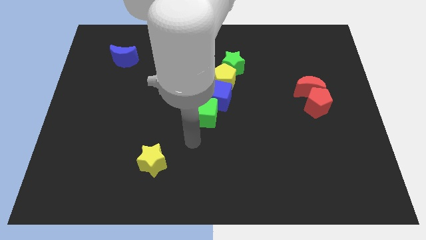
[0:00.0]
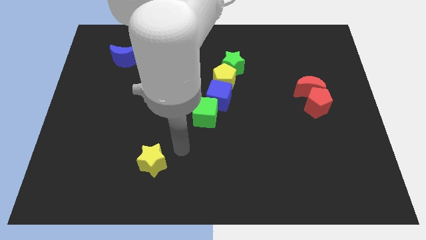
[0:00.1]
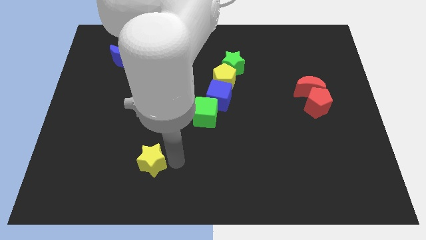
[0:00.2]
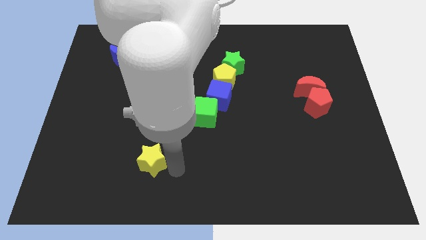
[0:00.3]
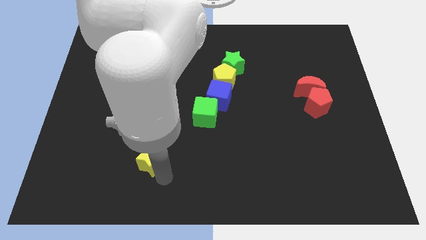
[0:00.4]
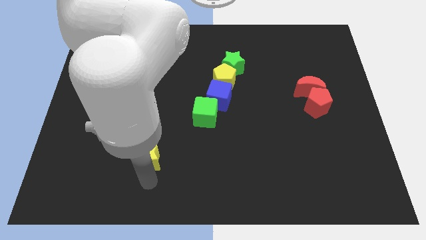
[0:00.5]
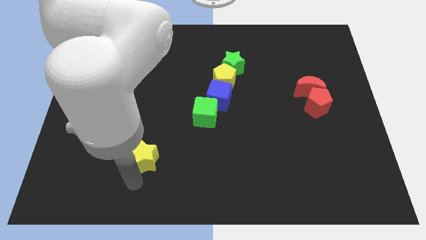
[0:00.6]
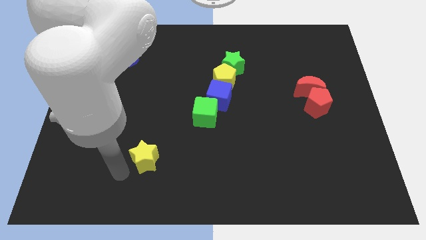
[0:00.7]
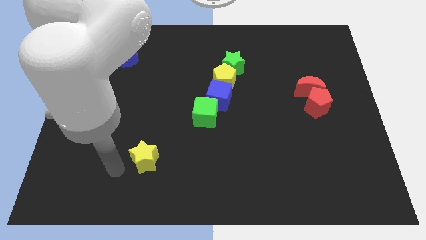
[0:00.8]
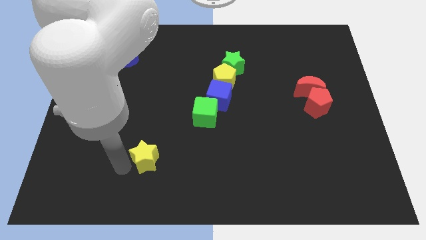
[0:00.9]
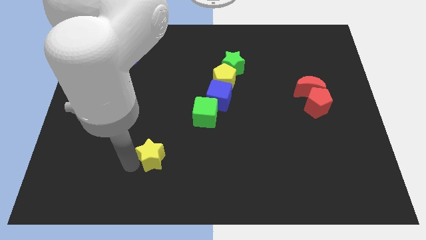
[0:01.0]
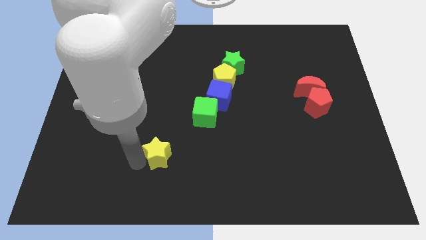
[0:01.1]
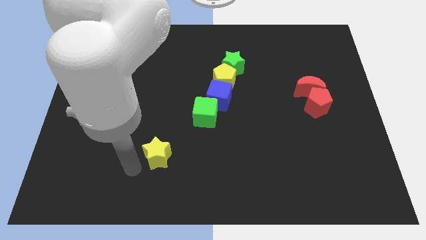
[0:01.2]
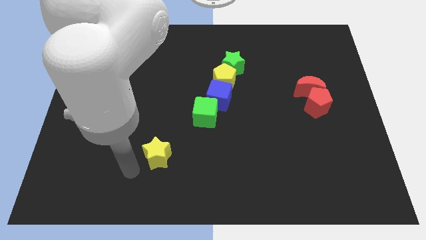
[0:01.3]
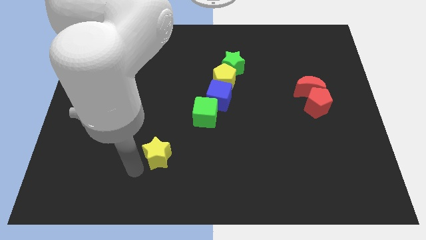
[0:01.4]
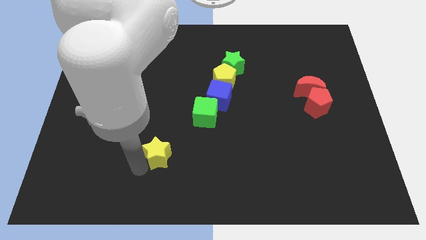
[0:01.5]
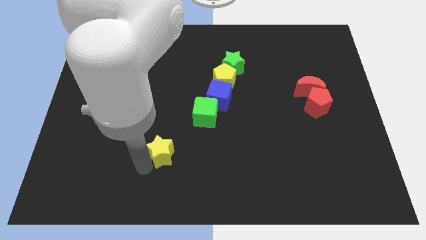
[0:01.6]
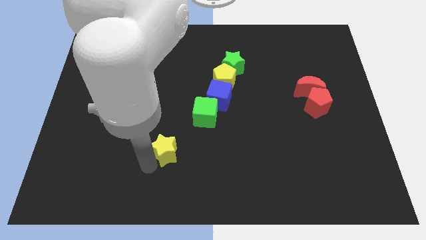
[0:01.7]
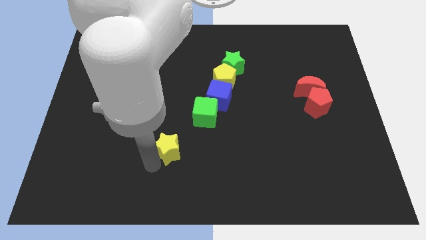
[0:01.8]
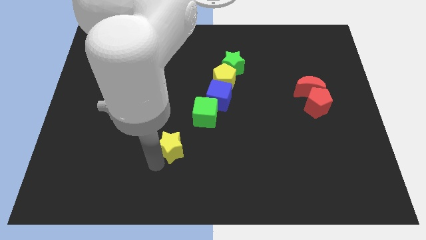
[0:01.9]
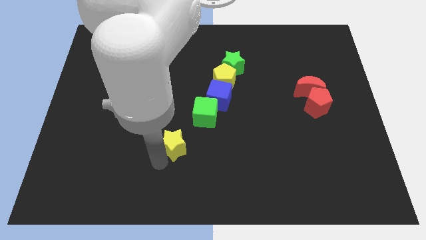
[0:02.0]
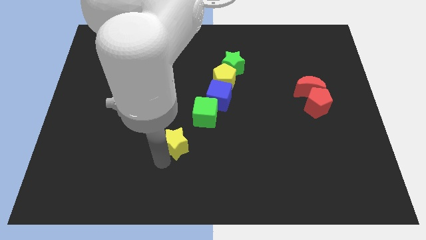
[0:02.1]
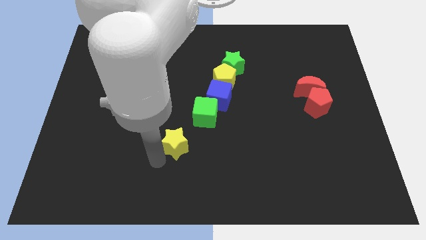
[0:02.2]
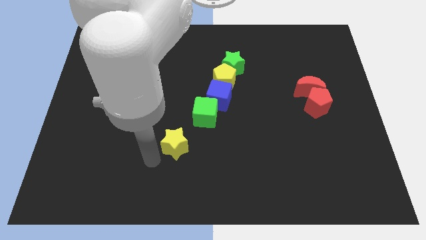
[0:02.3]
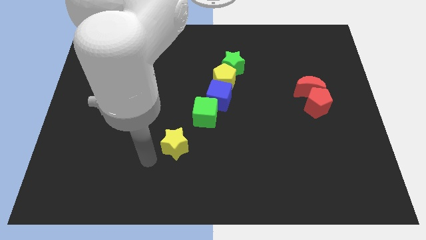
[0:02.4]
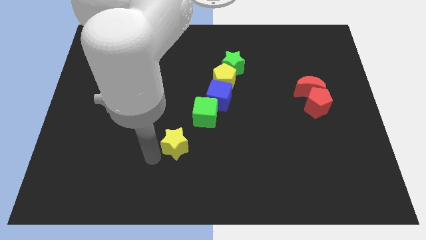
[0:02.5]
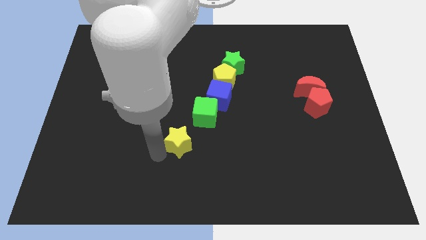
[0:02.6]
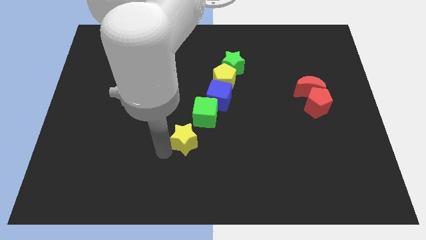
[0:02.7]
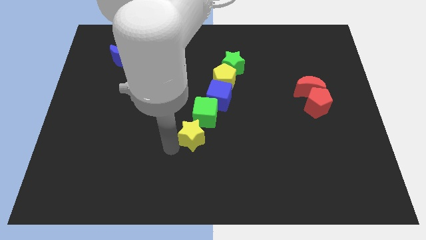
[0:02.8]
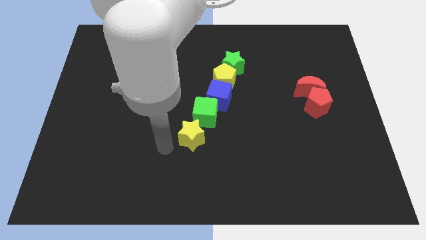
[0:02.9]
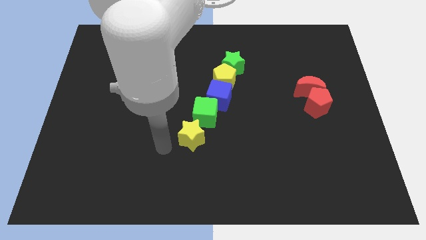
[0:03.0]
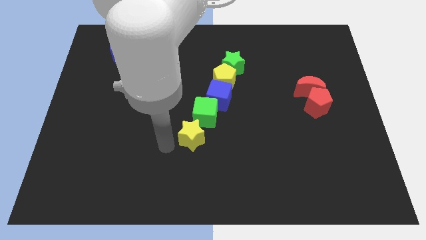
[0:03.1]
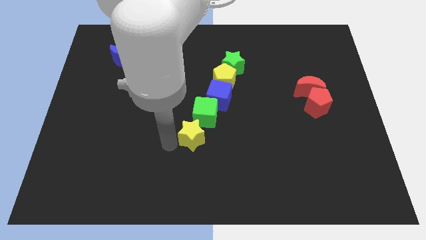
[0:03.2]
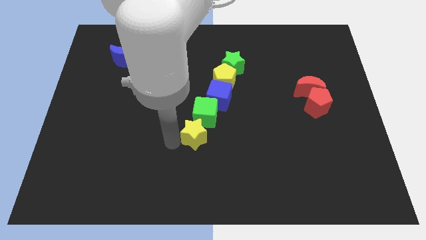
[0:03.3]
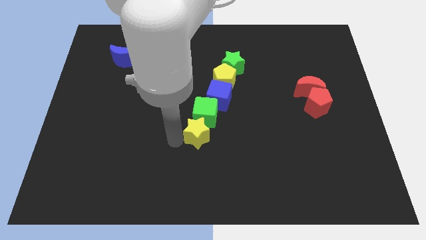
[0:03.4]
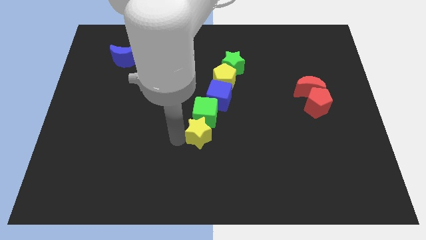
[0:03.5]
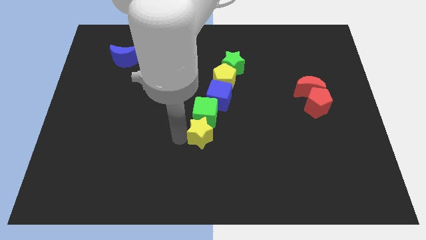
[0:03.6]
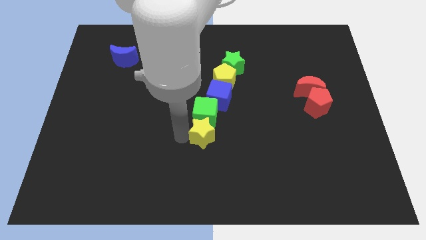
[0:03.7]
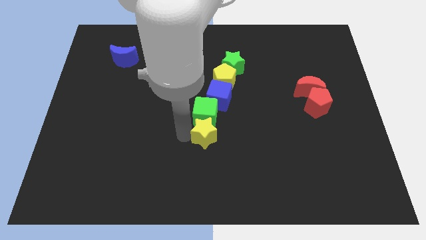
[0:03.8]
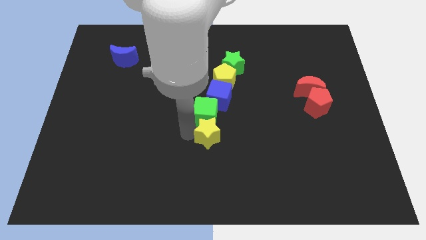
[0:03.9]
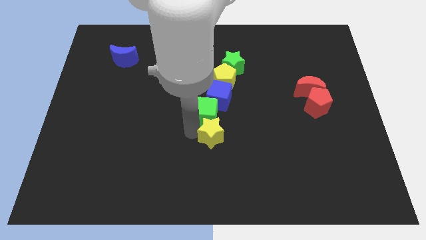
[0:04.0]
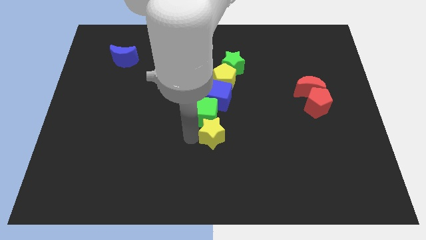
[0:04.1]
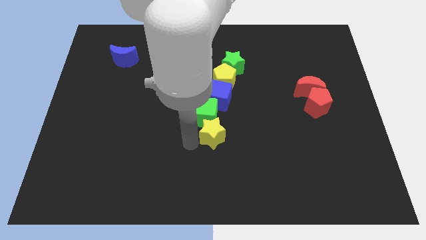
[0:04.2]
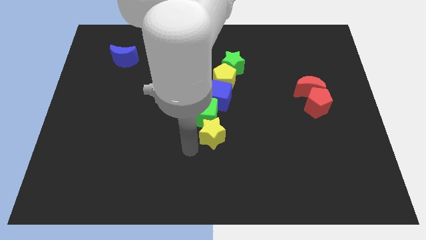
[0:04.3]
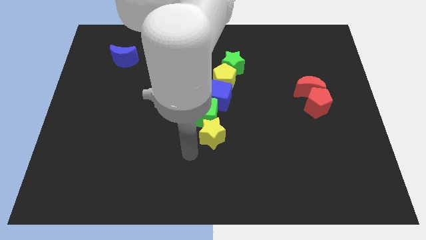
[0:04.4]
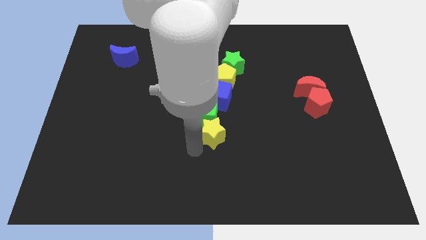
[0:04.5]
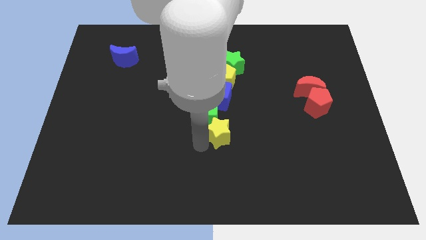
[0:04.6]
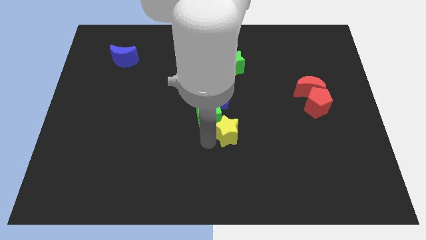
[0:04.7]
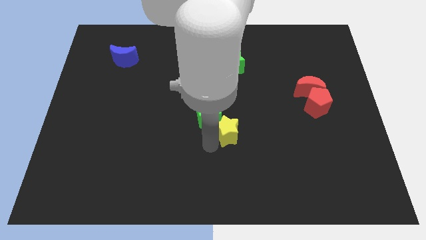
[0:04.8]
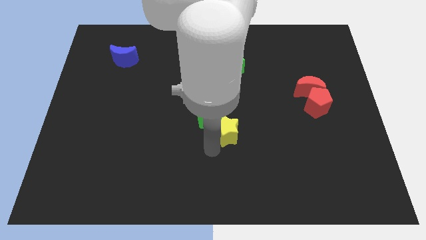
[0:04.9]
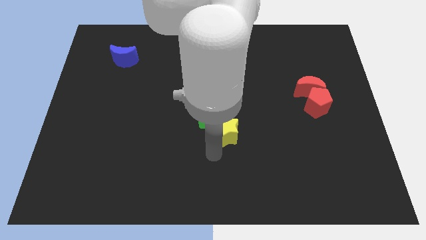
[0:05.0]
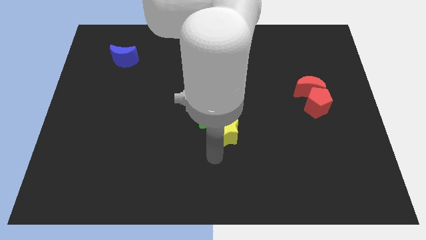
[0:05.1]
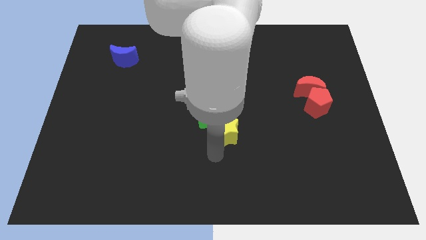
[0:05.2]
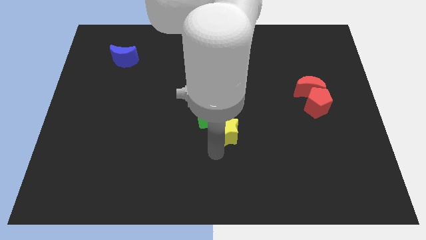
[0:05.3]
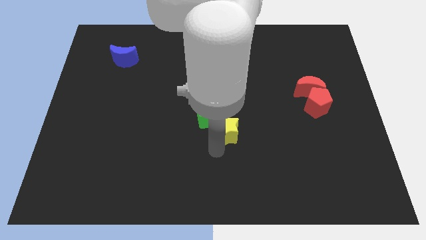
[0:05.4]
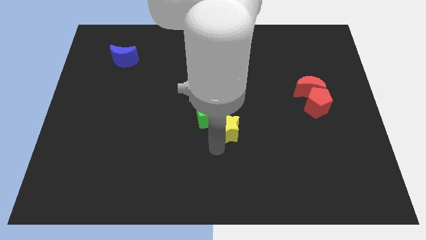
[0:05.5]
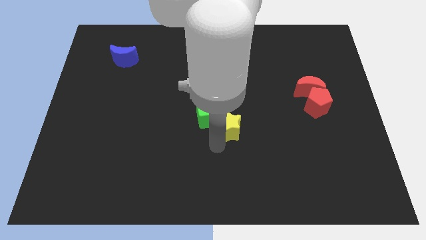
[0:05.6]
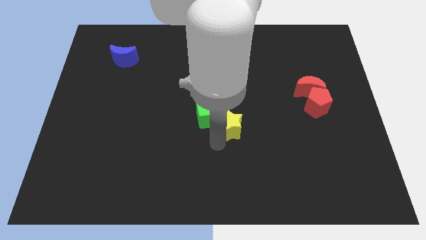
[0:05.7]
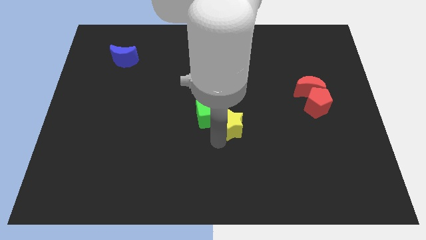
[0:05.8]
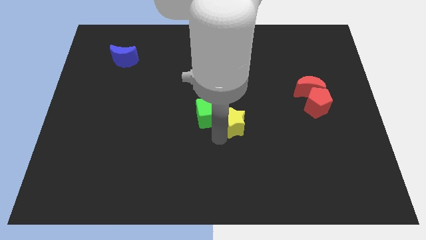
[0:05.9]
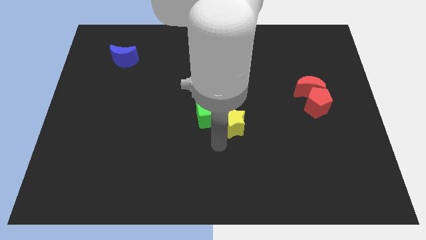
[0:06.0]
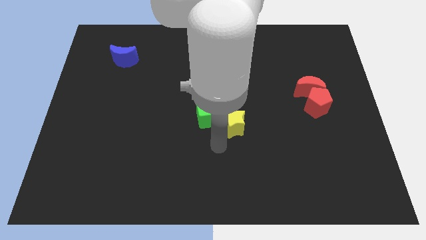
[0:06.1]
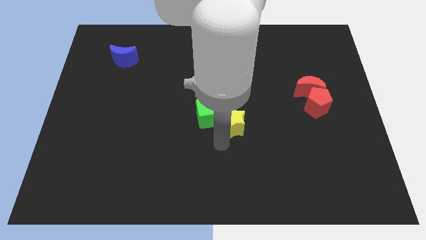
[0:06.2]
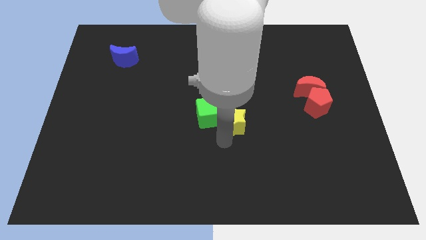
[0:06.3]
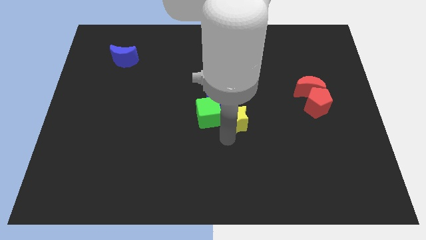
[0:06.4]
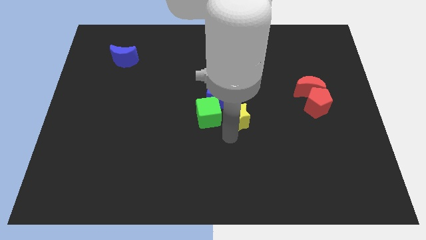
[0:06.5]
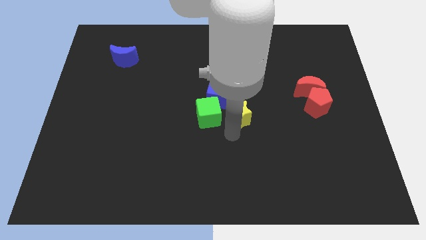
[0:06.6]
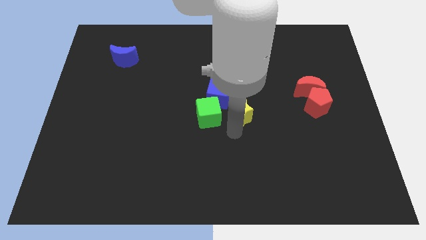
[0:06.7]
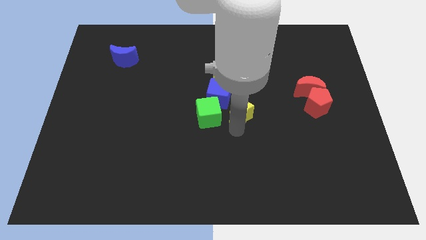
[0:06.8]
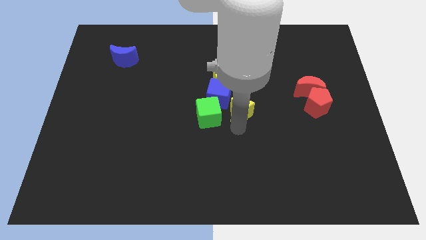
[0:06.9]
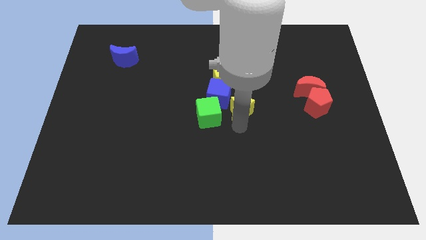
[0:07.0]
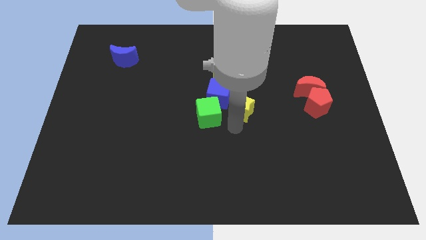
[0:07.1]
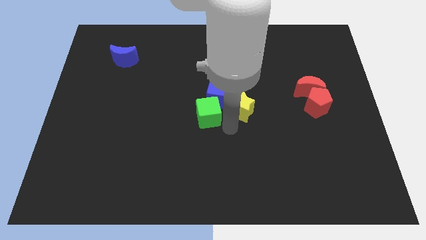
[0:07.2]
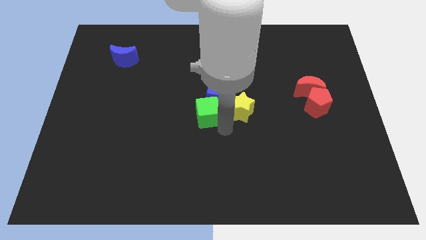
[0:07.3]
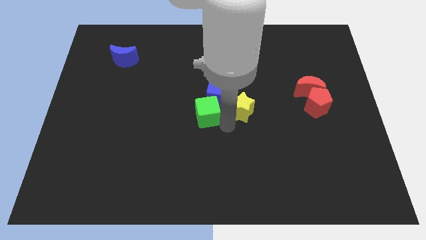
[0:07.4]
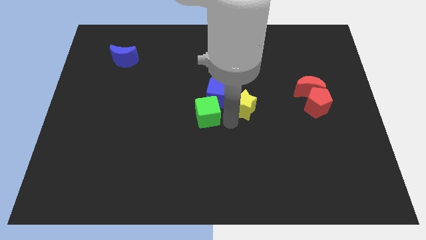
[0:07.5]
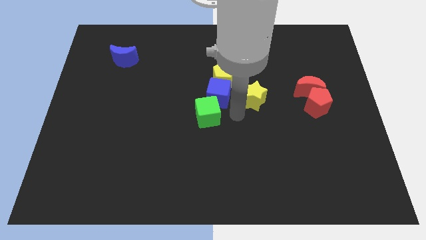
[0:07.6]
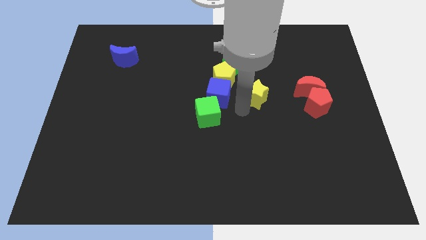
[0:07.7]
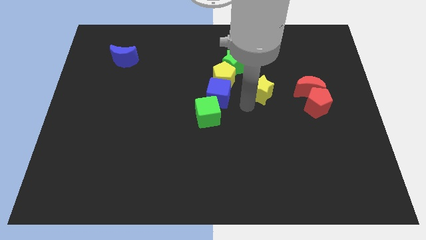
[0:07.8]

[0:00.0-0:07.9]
put the yellow star to the right of the yellow pentagon
